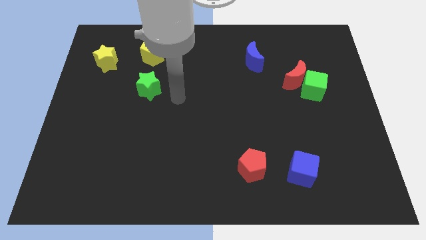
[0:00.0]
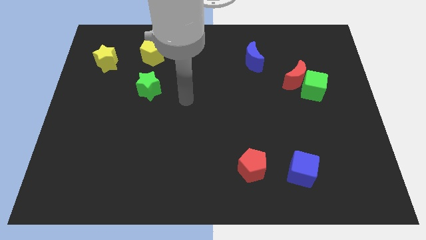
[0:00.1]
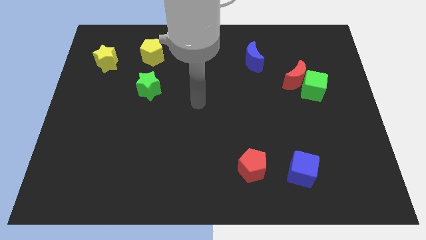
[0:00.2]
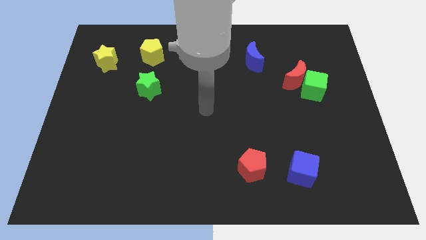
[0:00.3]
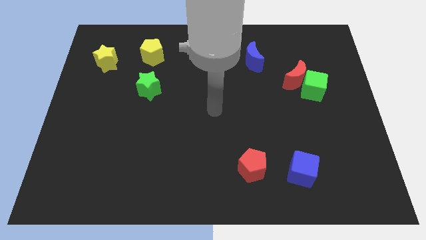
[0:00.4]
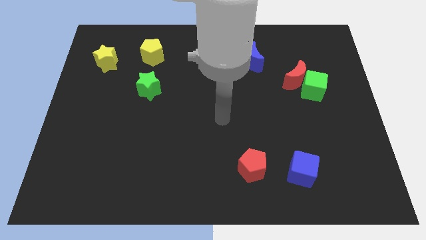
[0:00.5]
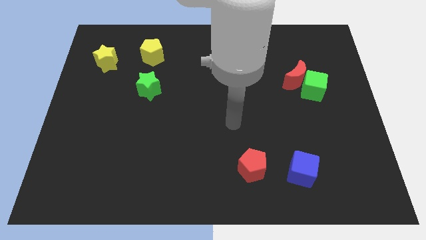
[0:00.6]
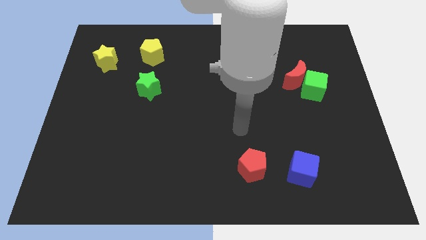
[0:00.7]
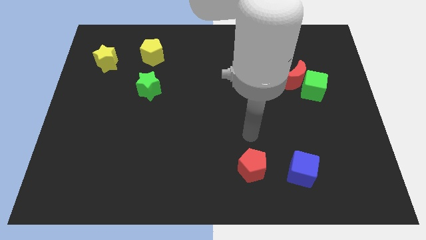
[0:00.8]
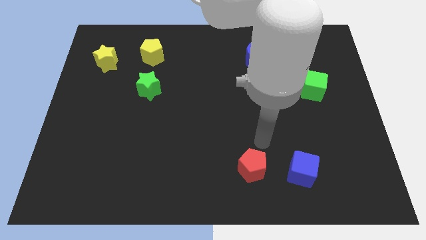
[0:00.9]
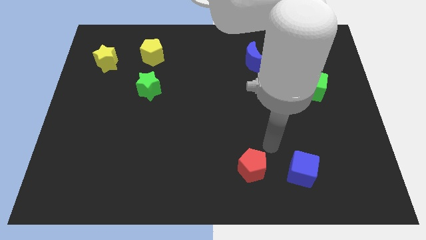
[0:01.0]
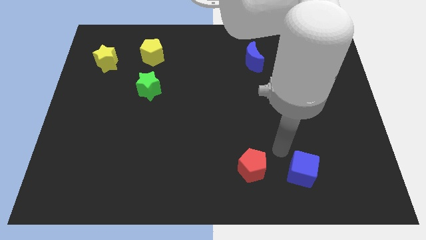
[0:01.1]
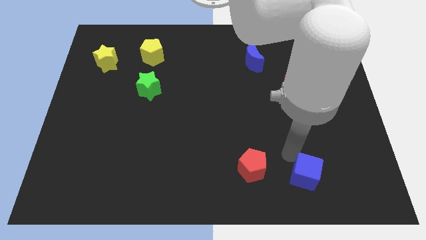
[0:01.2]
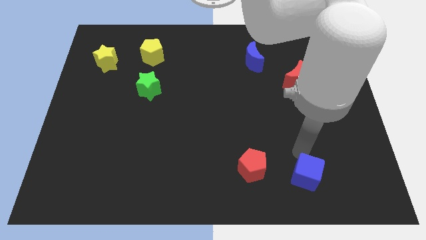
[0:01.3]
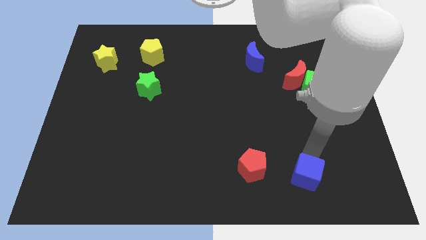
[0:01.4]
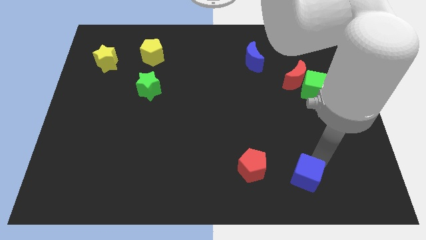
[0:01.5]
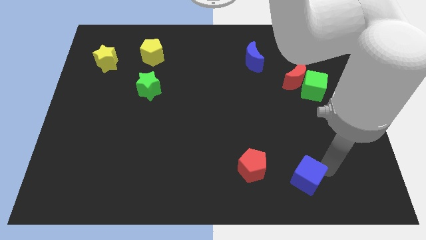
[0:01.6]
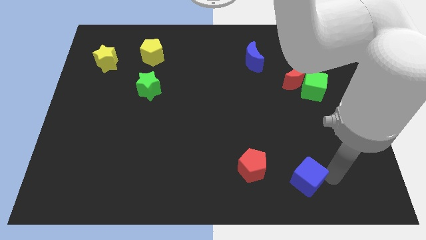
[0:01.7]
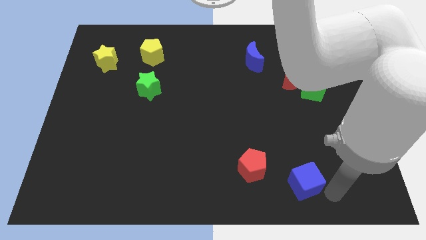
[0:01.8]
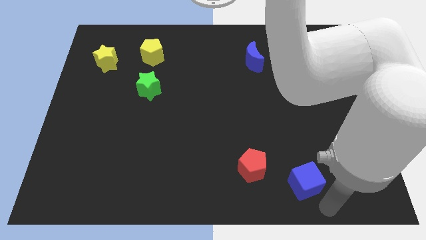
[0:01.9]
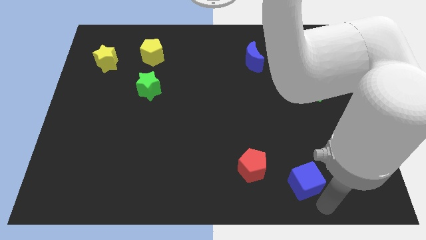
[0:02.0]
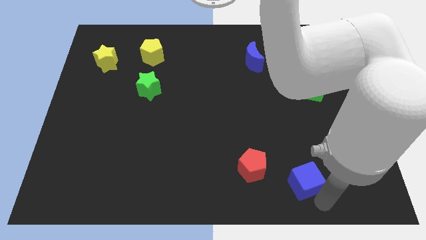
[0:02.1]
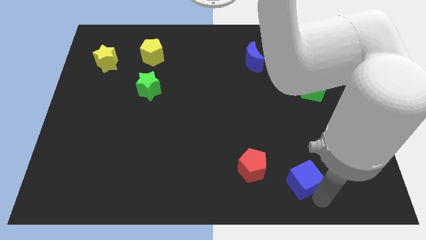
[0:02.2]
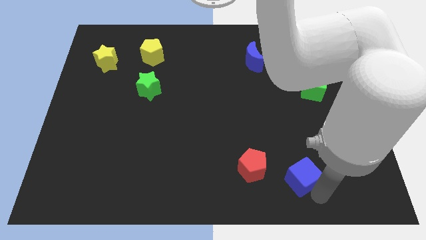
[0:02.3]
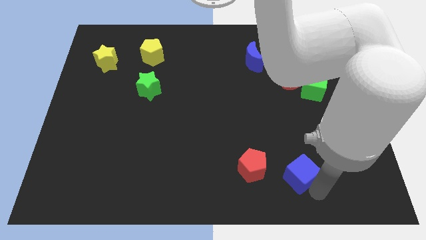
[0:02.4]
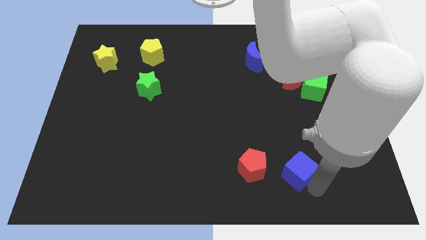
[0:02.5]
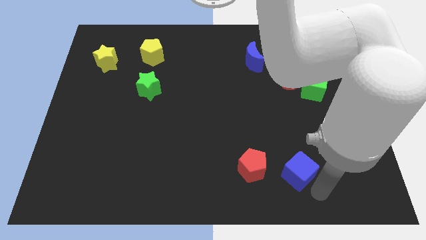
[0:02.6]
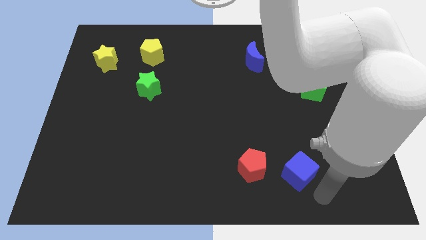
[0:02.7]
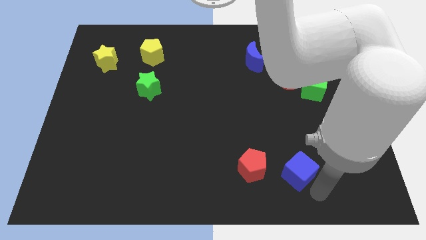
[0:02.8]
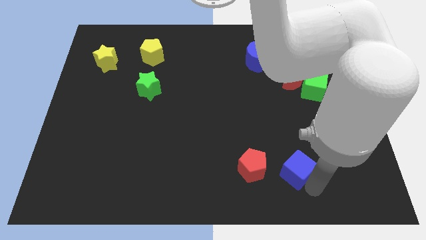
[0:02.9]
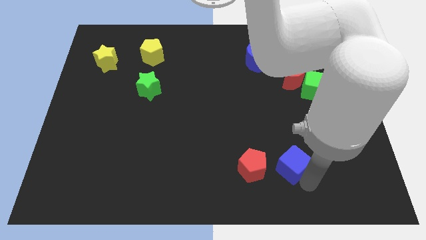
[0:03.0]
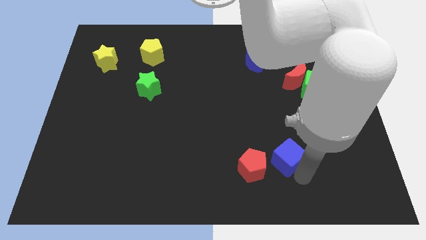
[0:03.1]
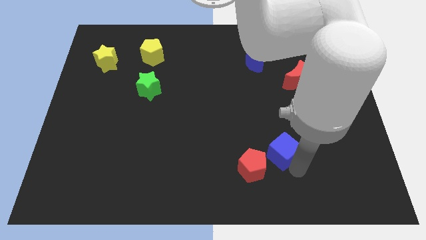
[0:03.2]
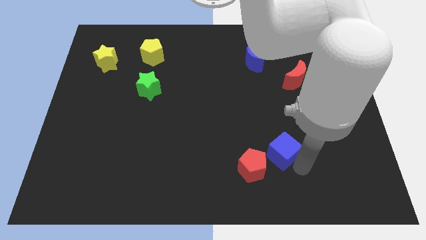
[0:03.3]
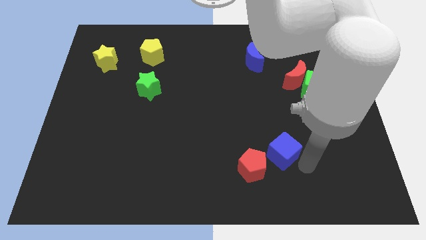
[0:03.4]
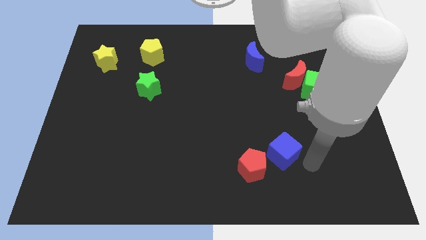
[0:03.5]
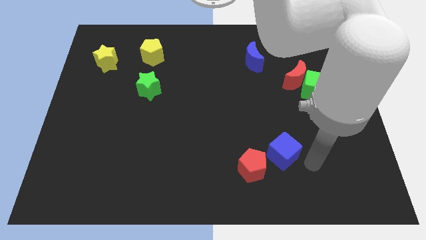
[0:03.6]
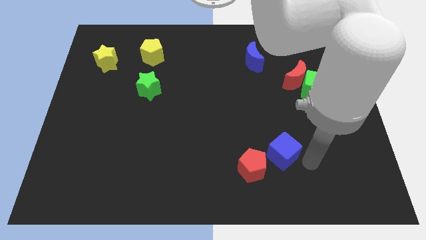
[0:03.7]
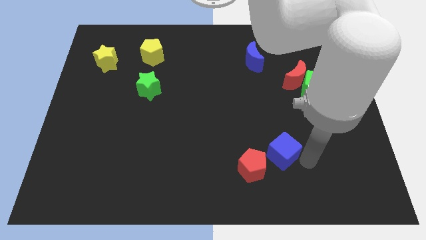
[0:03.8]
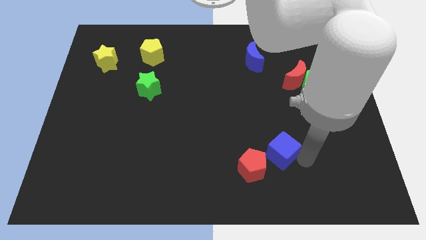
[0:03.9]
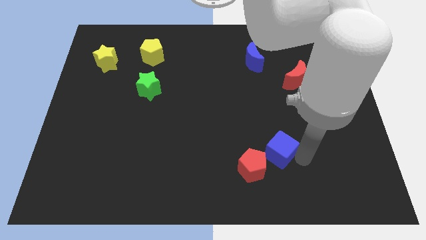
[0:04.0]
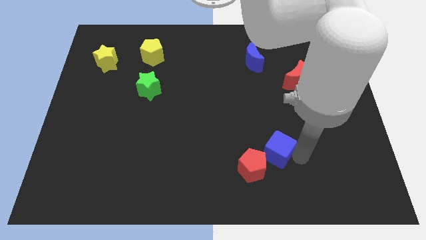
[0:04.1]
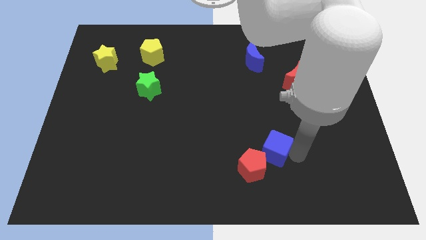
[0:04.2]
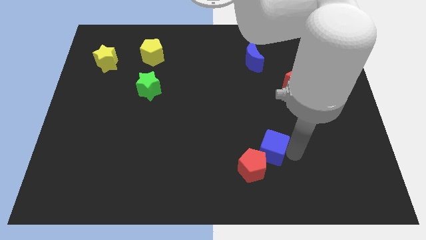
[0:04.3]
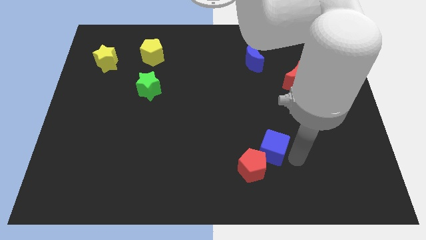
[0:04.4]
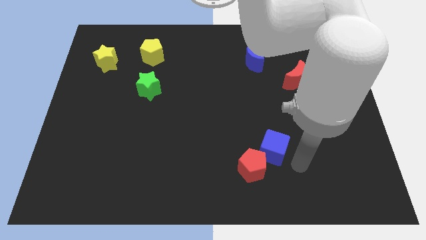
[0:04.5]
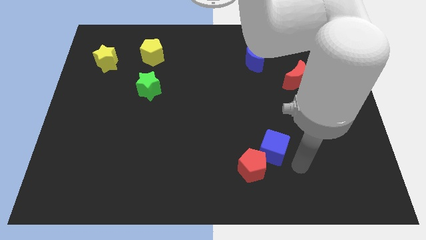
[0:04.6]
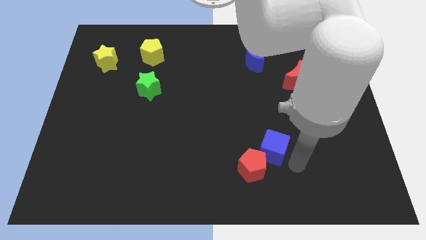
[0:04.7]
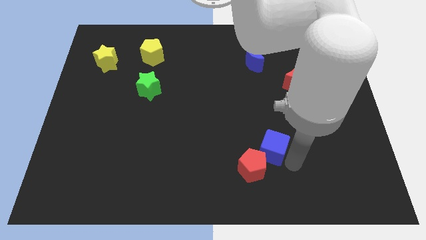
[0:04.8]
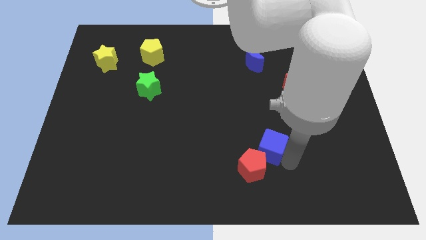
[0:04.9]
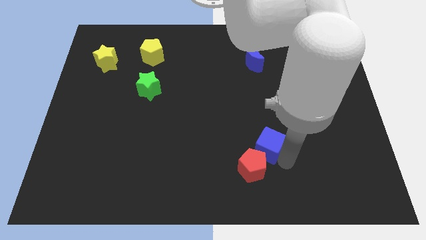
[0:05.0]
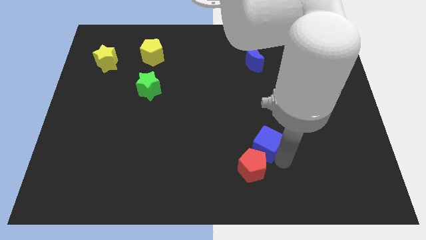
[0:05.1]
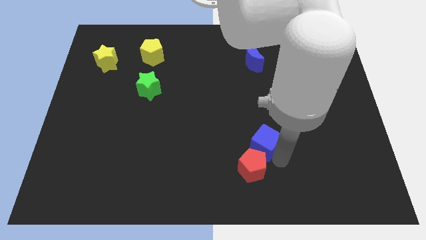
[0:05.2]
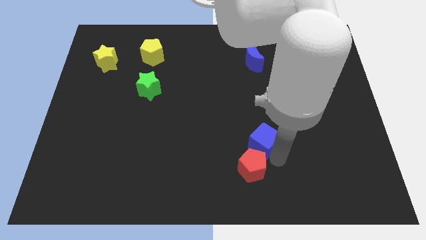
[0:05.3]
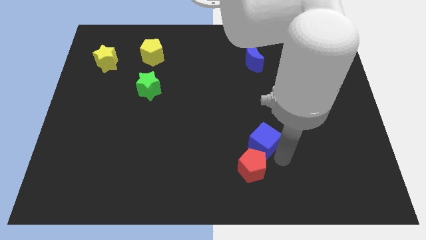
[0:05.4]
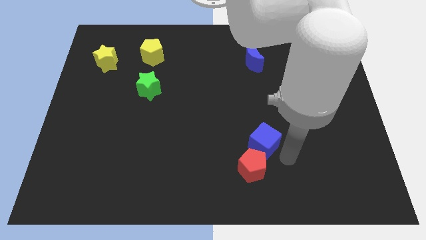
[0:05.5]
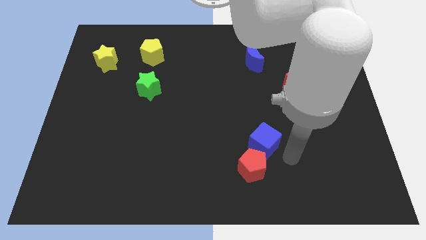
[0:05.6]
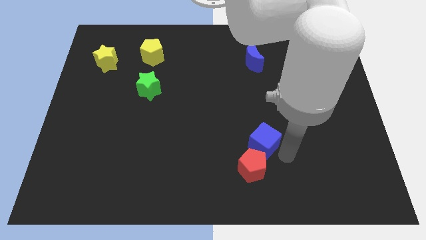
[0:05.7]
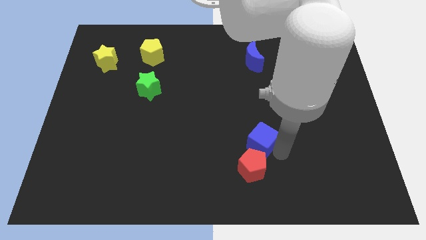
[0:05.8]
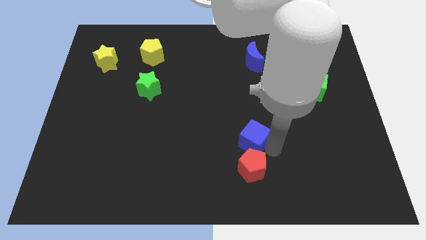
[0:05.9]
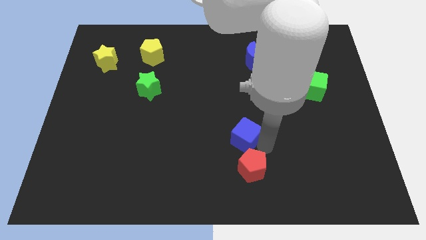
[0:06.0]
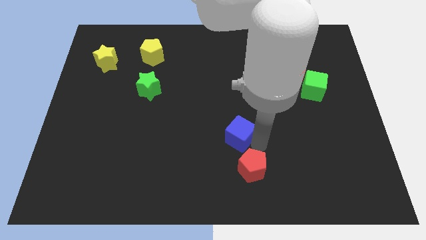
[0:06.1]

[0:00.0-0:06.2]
put the blue cube to the middle
